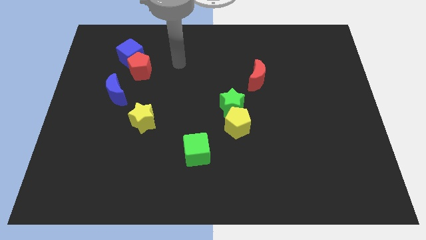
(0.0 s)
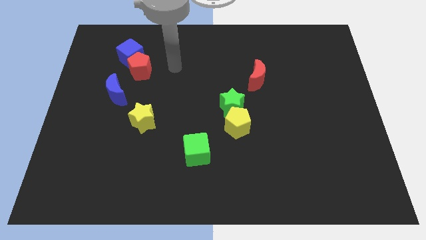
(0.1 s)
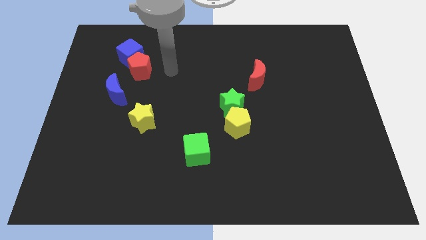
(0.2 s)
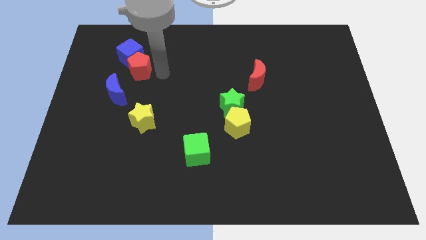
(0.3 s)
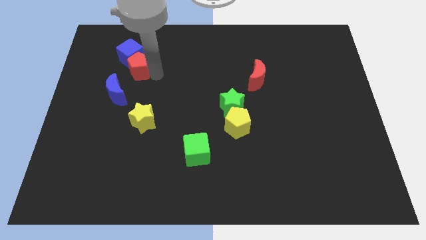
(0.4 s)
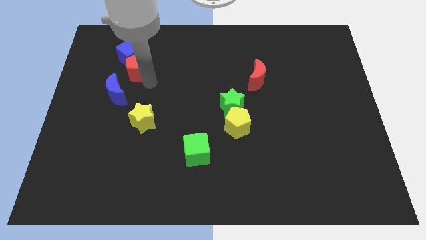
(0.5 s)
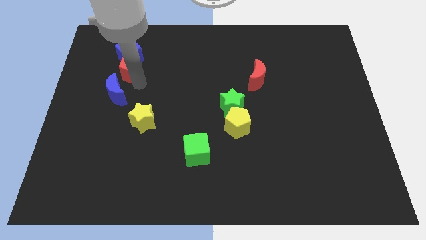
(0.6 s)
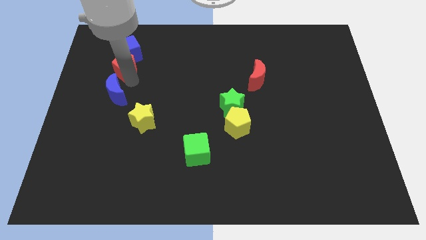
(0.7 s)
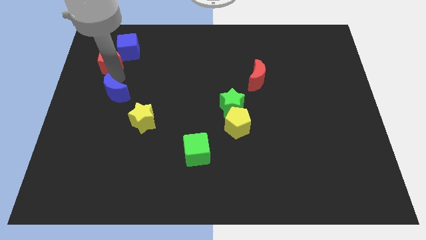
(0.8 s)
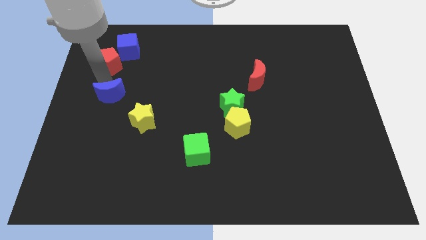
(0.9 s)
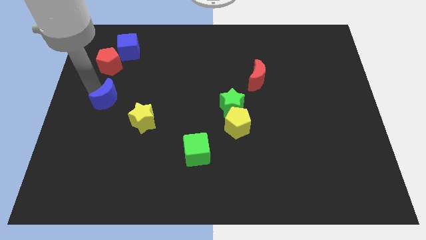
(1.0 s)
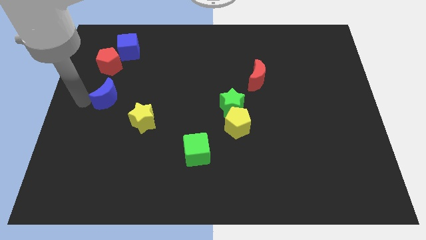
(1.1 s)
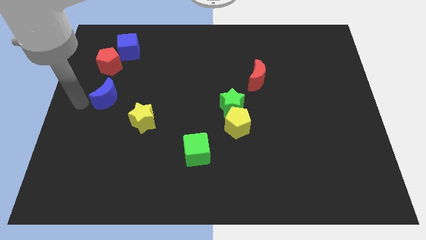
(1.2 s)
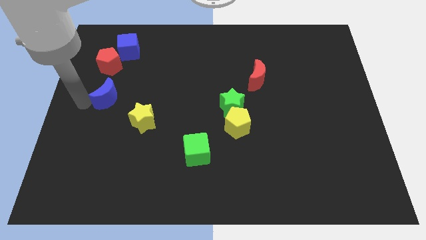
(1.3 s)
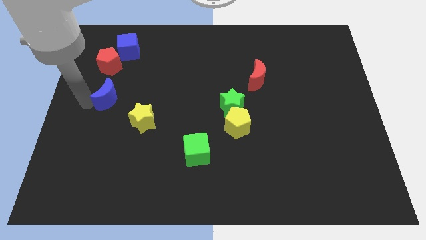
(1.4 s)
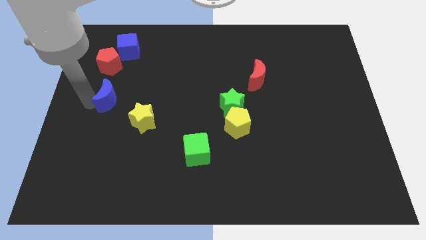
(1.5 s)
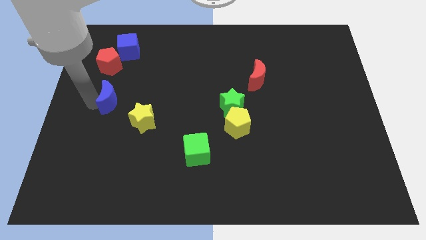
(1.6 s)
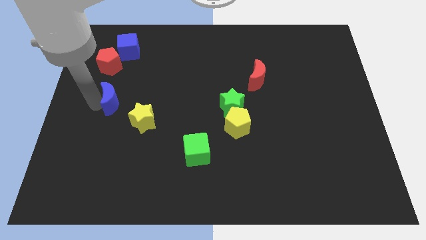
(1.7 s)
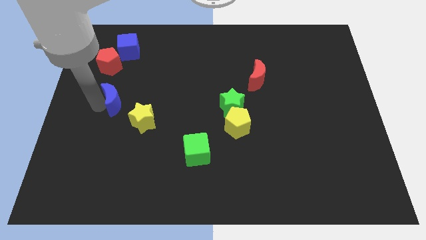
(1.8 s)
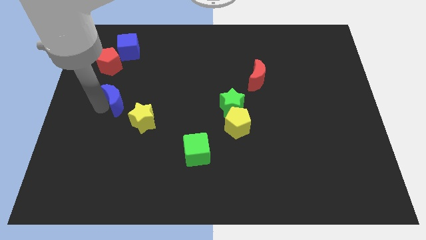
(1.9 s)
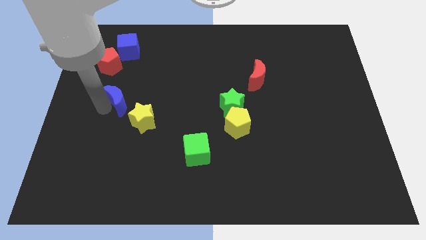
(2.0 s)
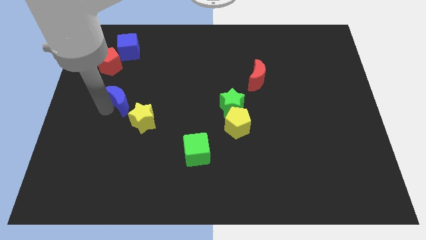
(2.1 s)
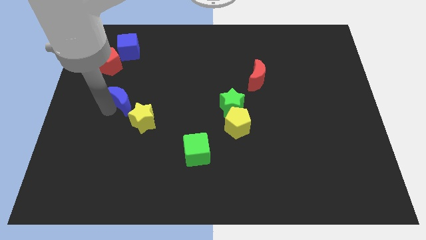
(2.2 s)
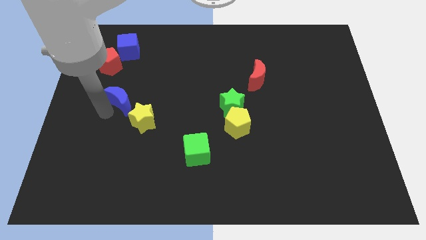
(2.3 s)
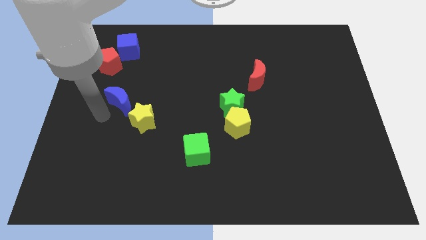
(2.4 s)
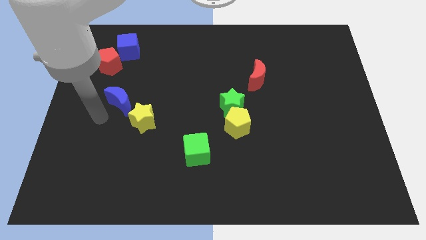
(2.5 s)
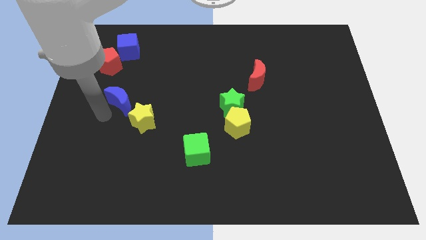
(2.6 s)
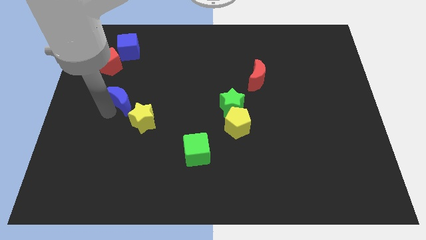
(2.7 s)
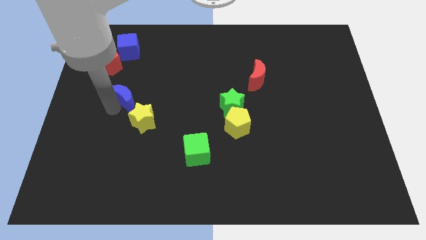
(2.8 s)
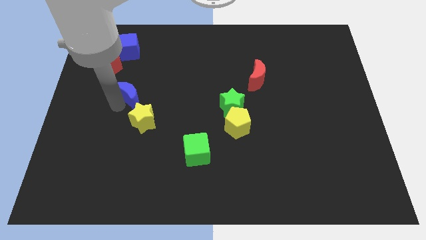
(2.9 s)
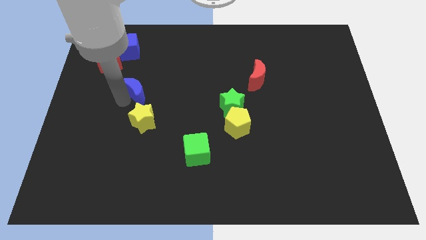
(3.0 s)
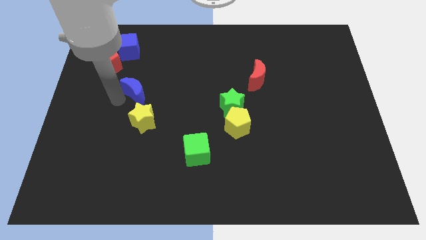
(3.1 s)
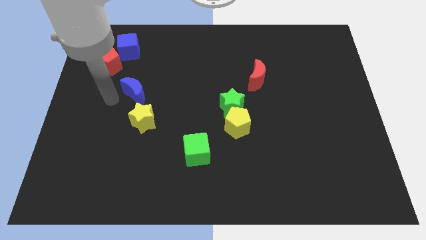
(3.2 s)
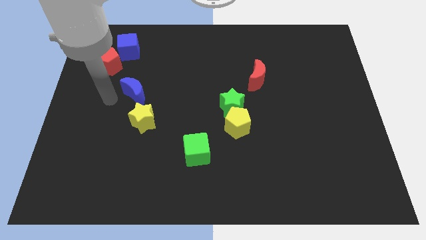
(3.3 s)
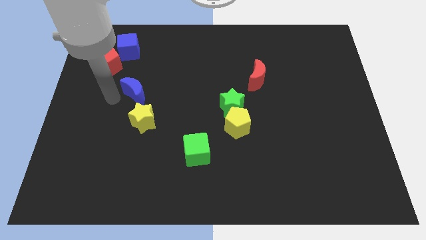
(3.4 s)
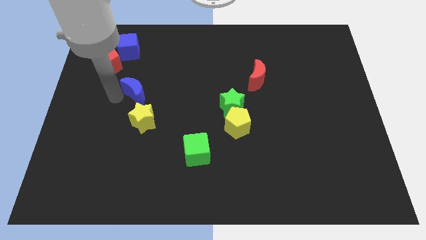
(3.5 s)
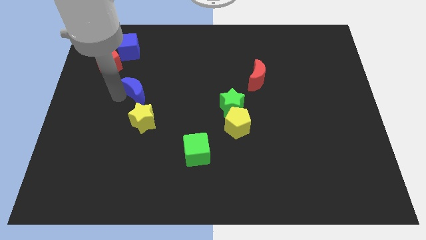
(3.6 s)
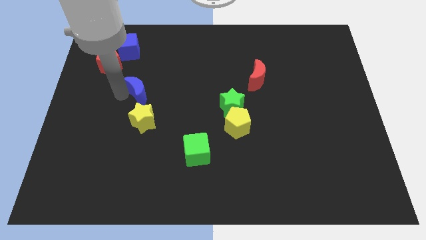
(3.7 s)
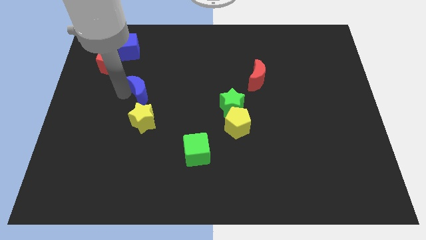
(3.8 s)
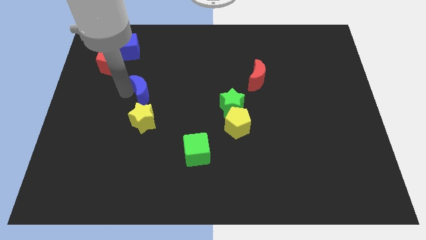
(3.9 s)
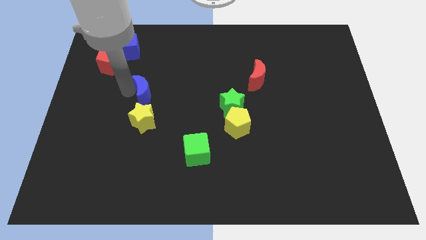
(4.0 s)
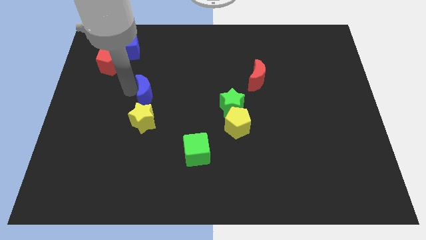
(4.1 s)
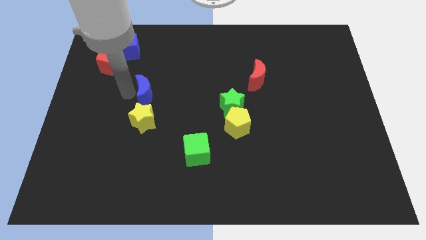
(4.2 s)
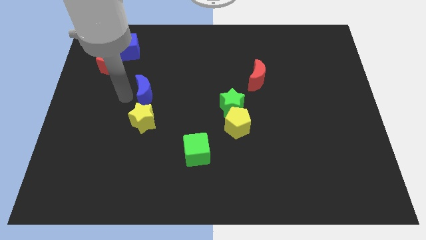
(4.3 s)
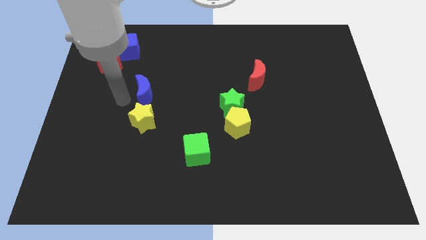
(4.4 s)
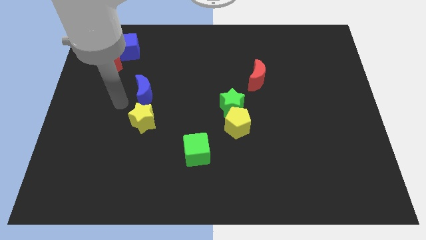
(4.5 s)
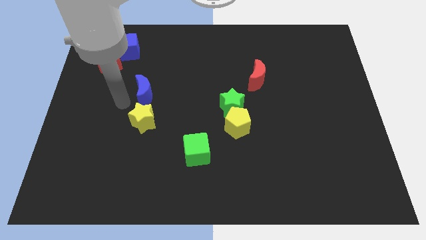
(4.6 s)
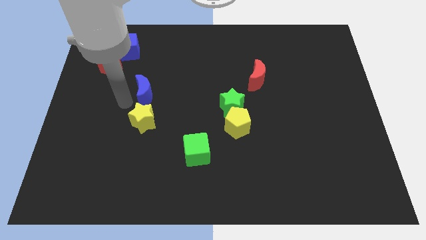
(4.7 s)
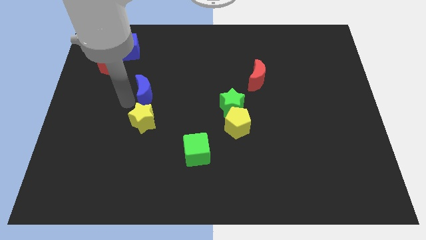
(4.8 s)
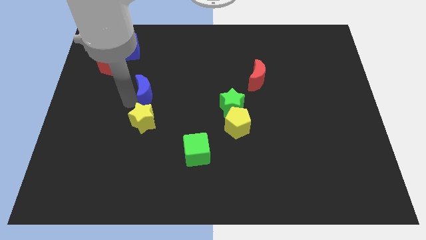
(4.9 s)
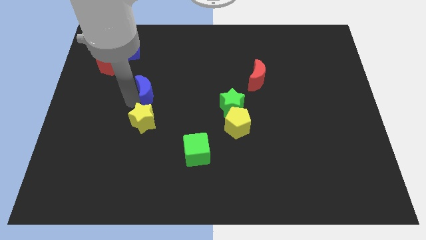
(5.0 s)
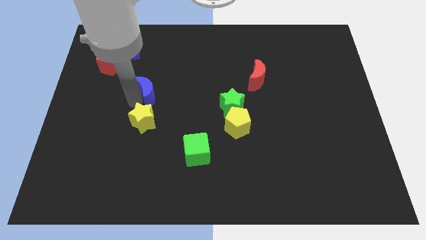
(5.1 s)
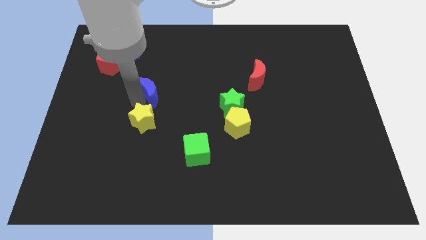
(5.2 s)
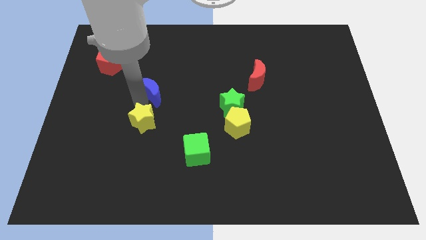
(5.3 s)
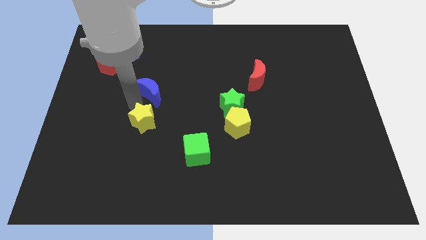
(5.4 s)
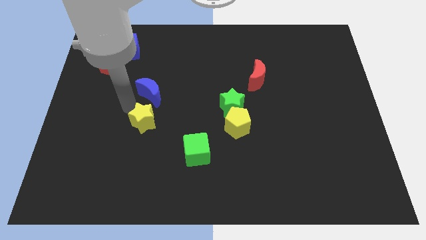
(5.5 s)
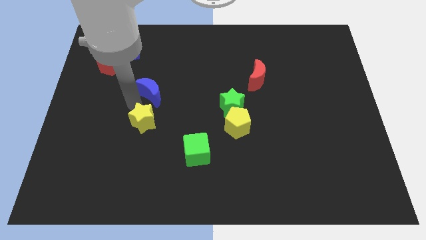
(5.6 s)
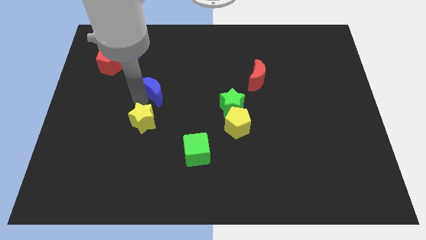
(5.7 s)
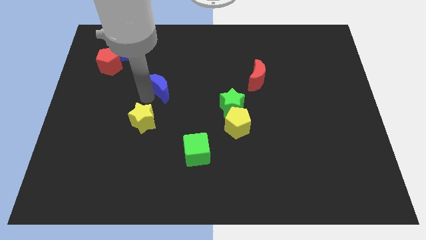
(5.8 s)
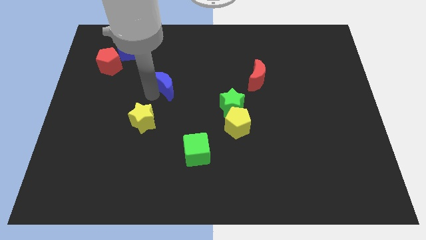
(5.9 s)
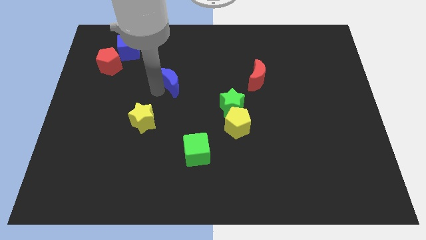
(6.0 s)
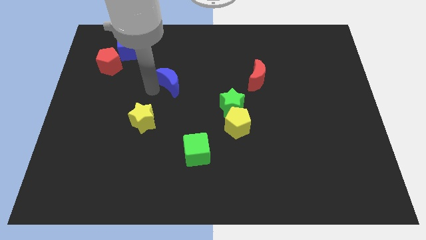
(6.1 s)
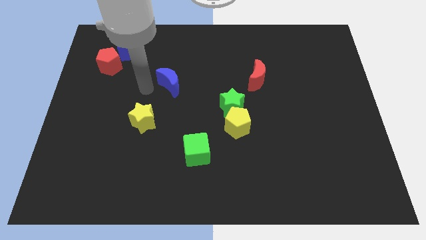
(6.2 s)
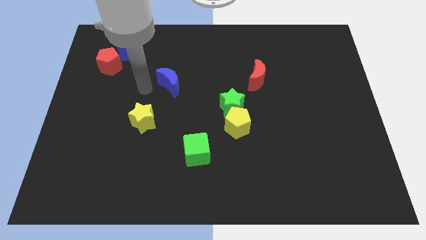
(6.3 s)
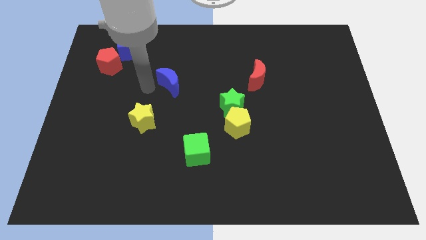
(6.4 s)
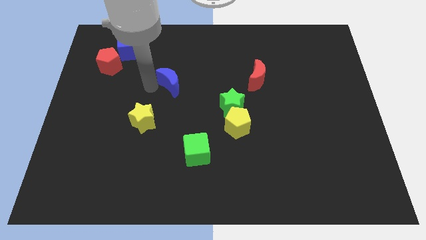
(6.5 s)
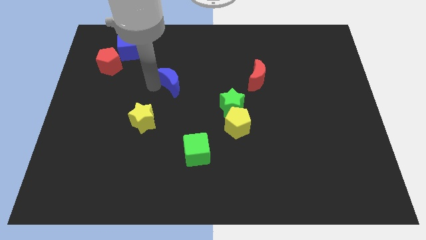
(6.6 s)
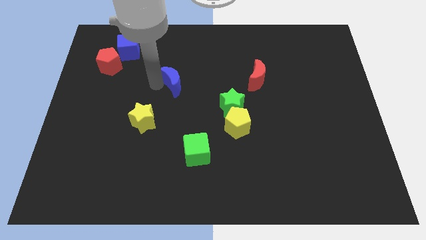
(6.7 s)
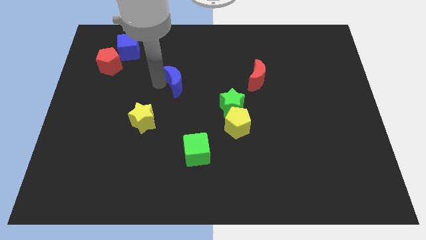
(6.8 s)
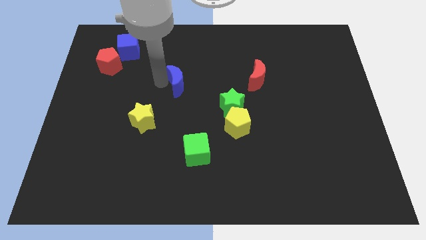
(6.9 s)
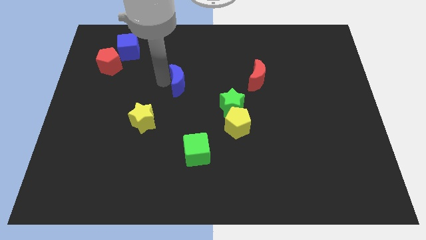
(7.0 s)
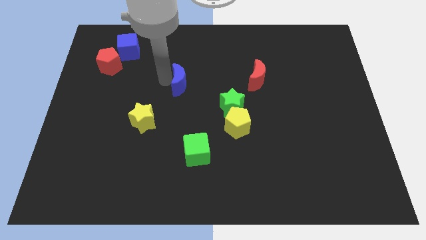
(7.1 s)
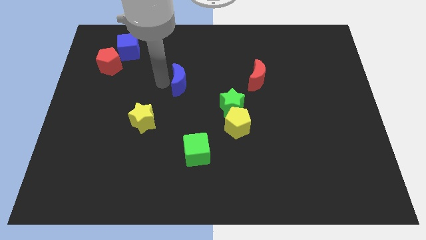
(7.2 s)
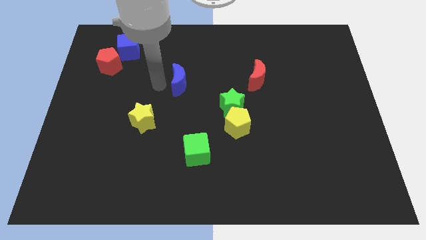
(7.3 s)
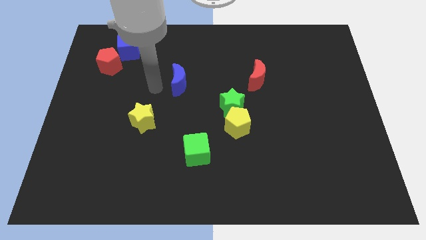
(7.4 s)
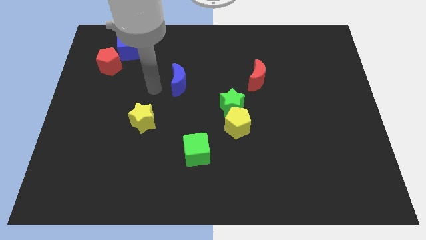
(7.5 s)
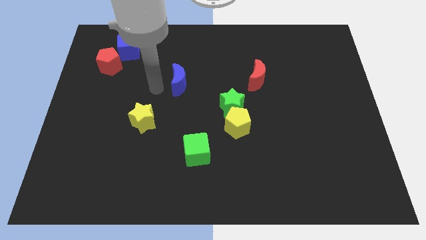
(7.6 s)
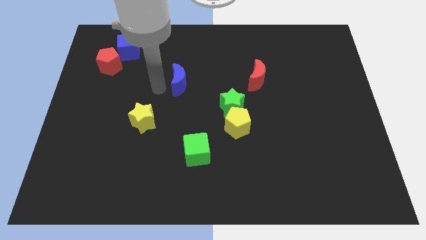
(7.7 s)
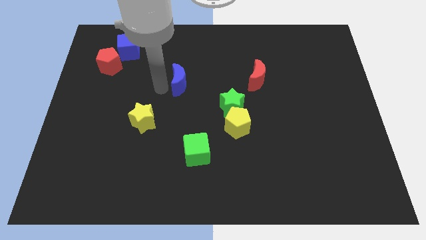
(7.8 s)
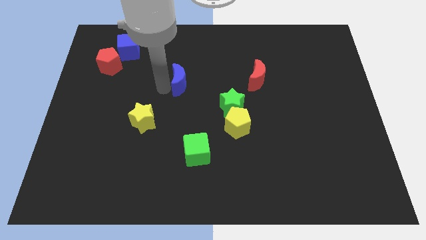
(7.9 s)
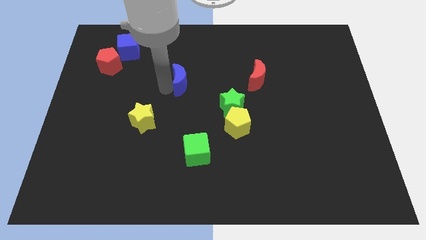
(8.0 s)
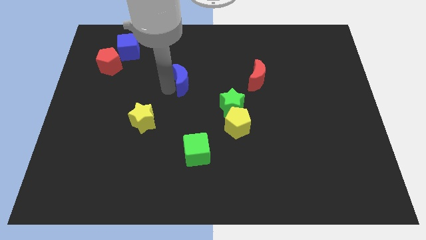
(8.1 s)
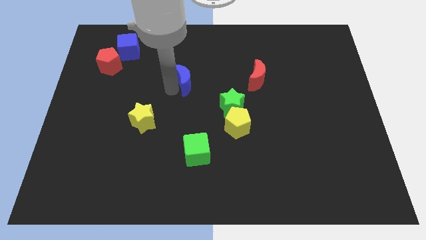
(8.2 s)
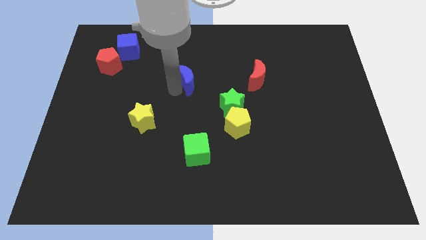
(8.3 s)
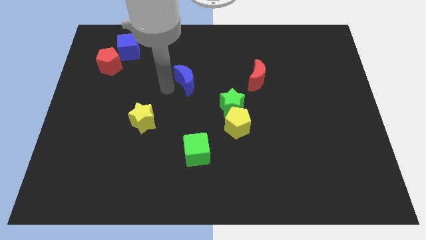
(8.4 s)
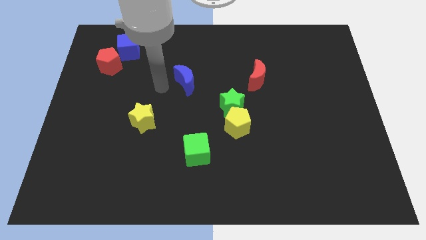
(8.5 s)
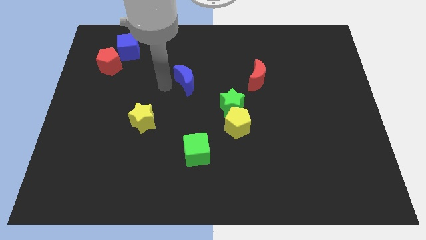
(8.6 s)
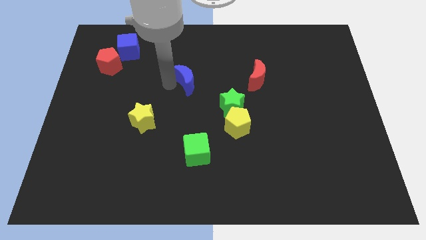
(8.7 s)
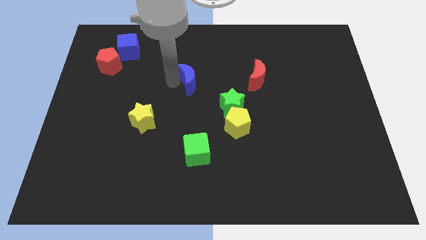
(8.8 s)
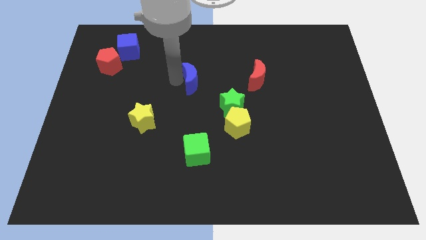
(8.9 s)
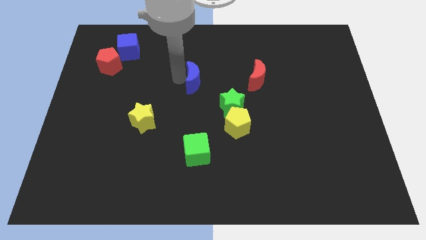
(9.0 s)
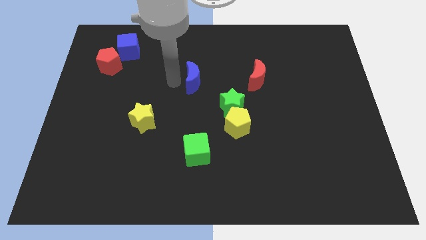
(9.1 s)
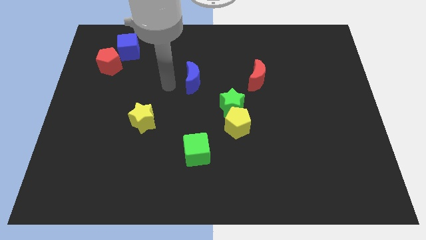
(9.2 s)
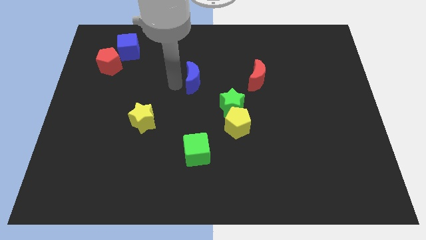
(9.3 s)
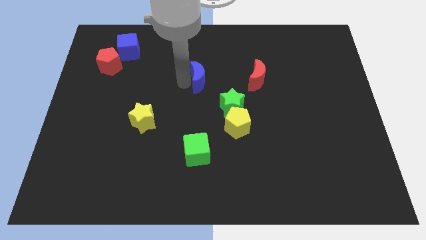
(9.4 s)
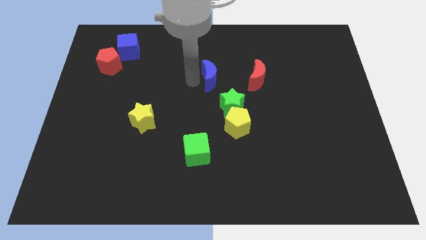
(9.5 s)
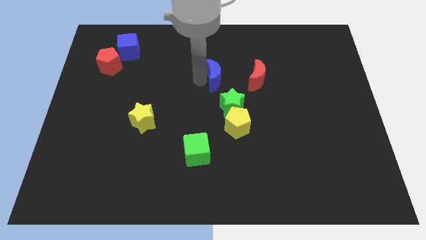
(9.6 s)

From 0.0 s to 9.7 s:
put the blue moon above the green star
